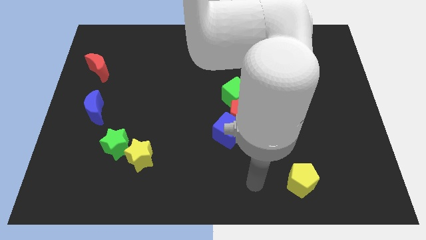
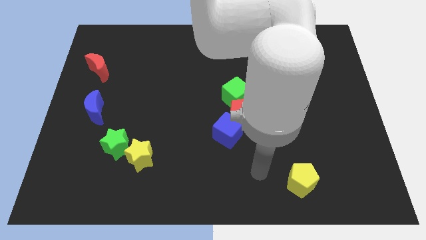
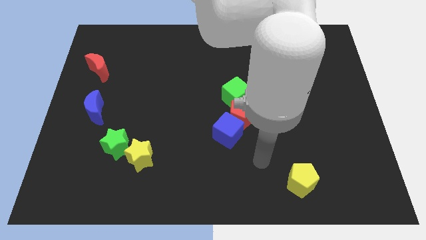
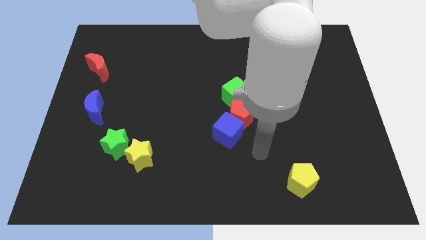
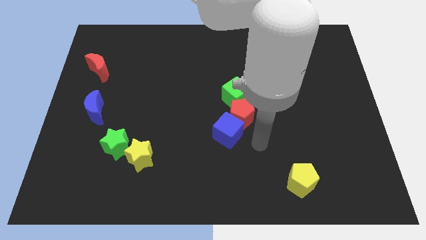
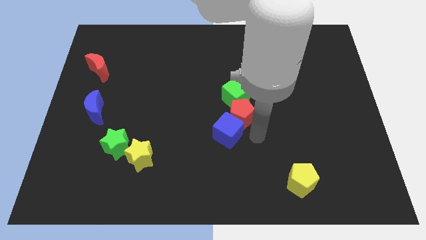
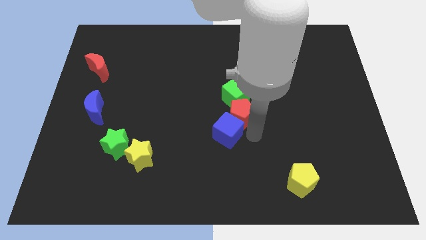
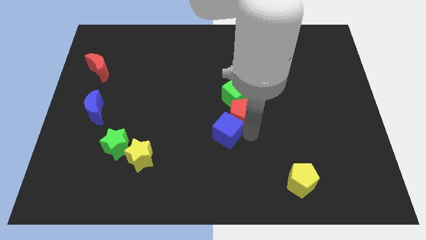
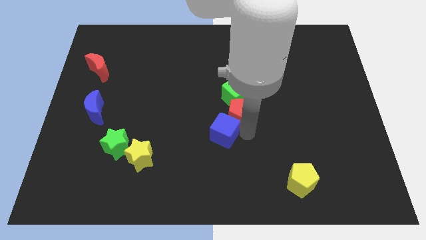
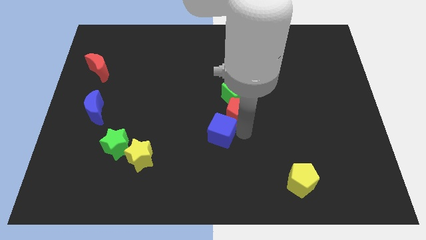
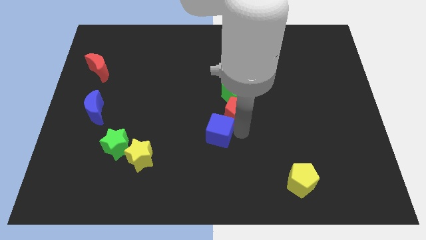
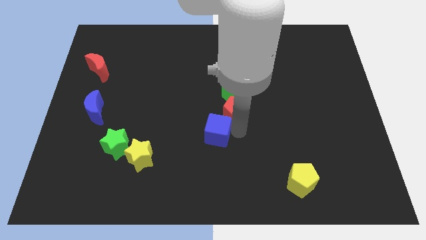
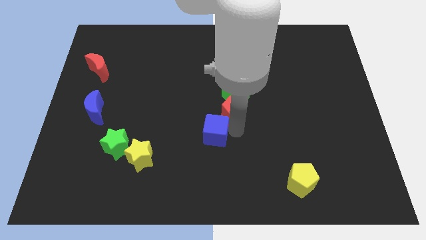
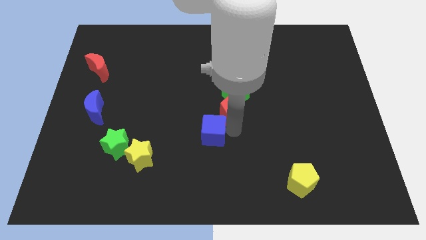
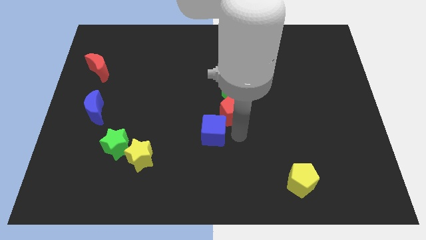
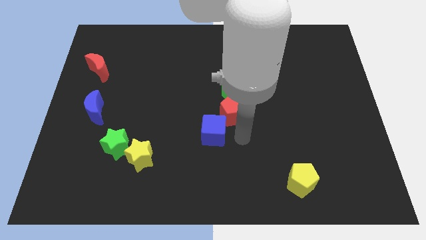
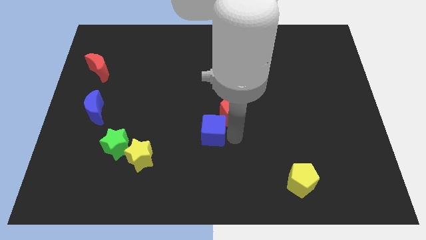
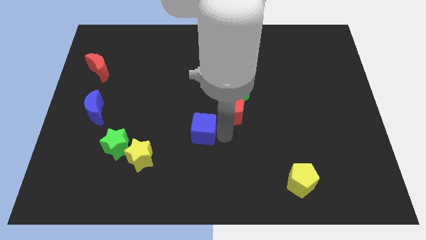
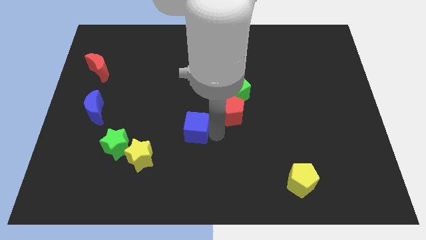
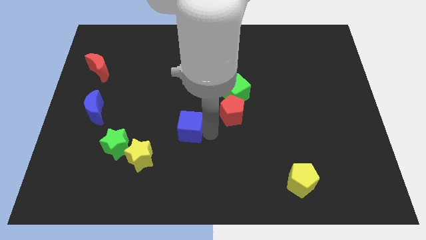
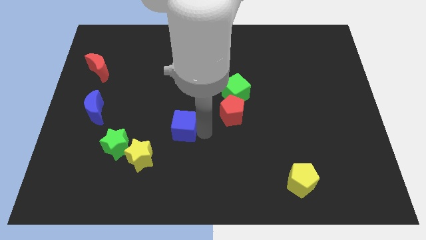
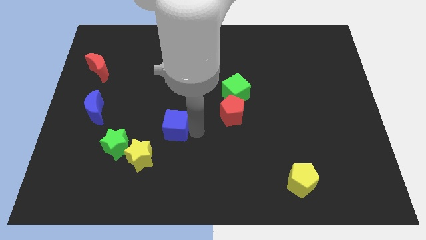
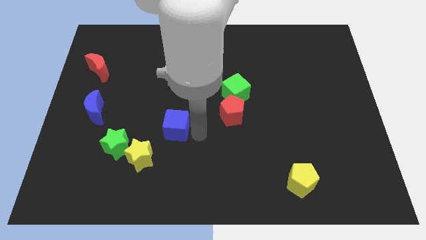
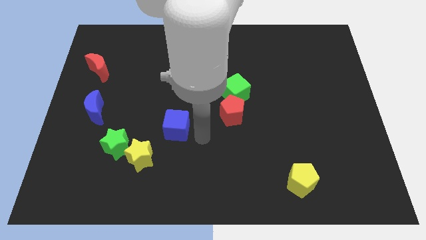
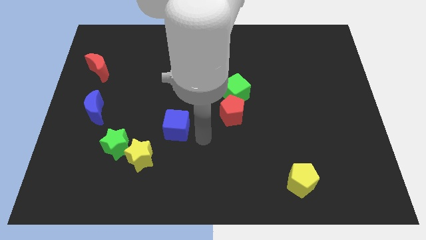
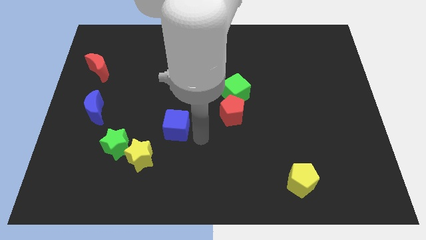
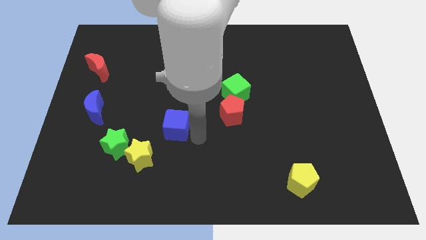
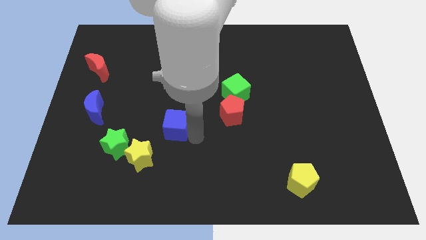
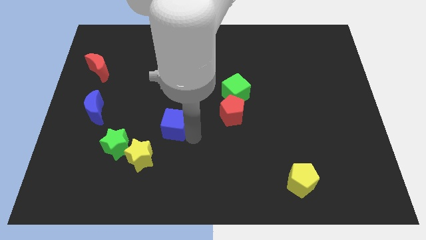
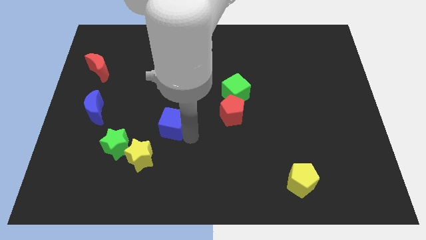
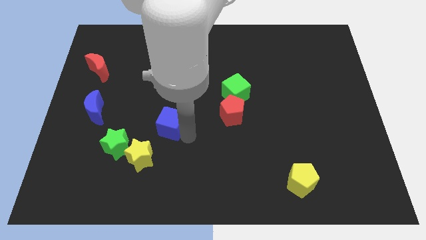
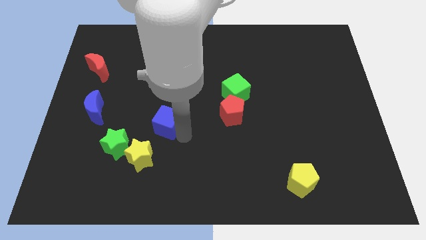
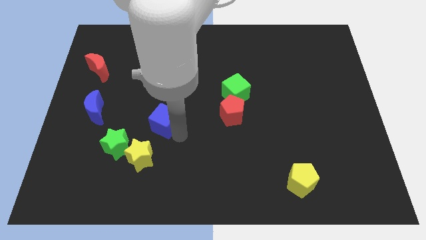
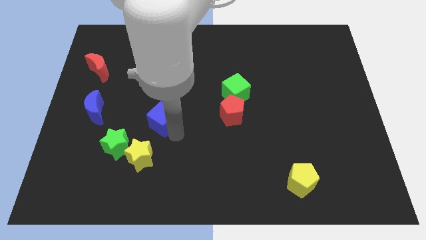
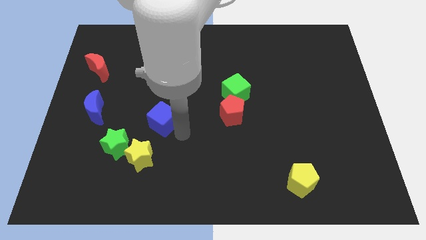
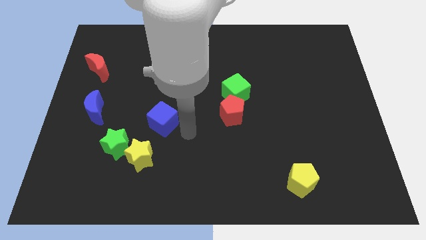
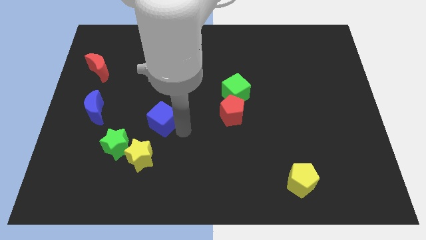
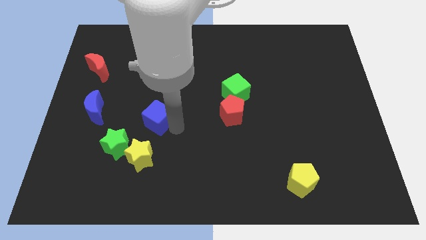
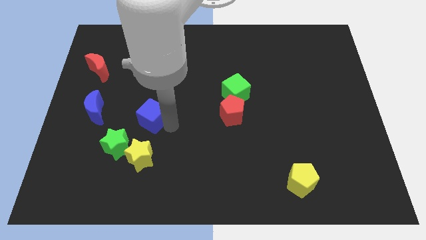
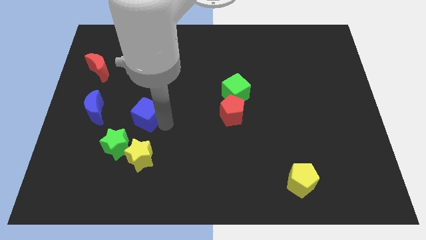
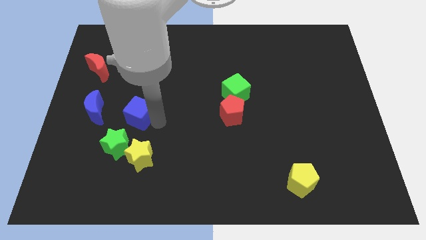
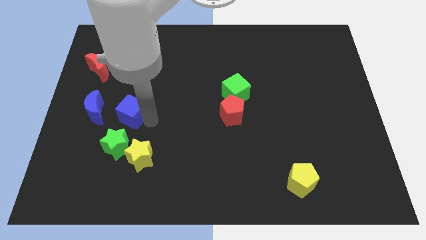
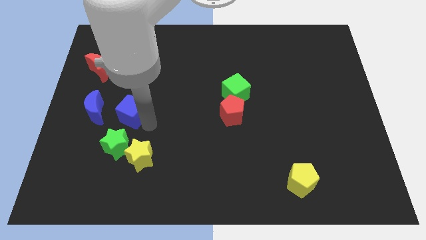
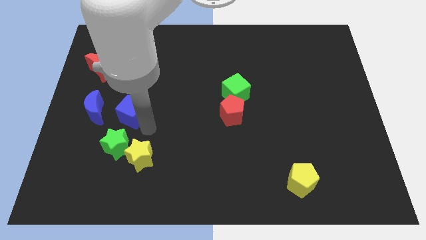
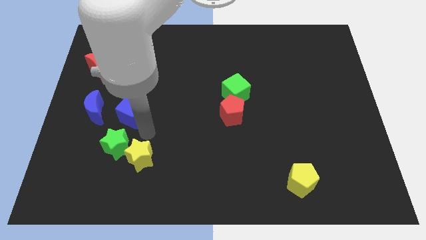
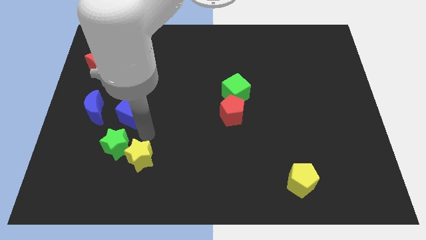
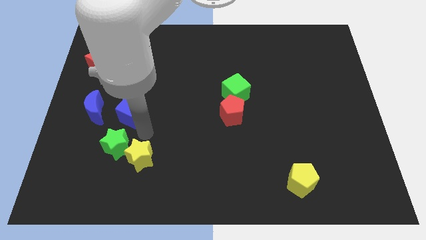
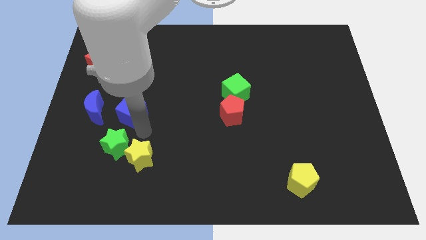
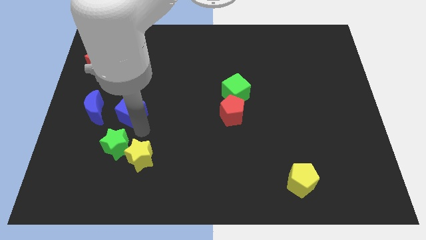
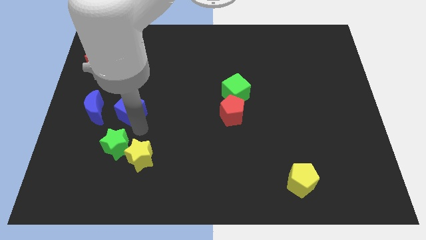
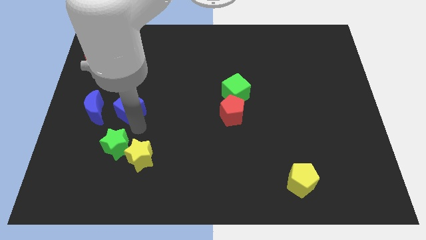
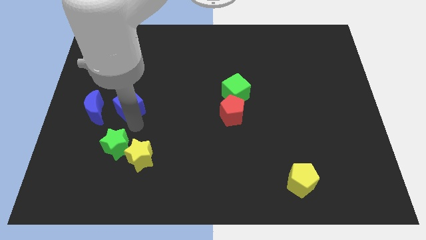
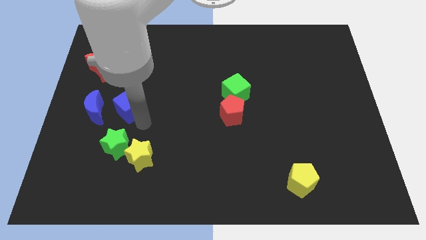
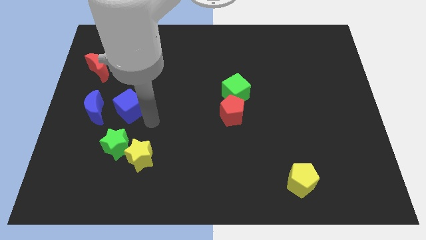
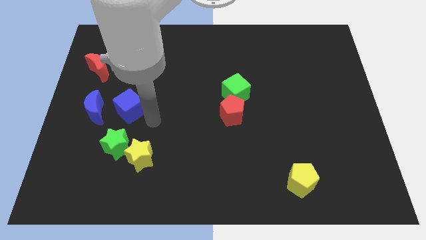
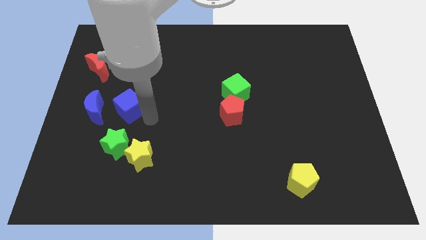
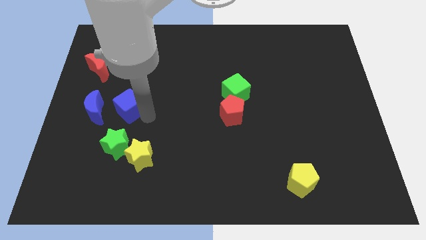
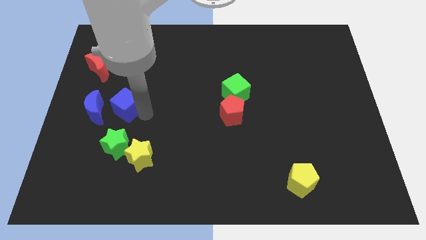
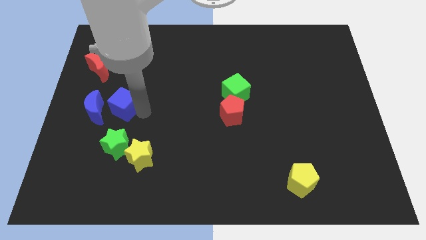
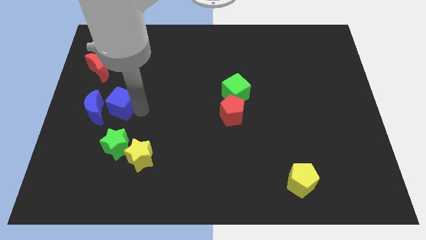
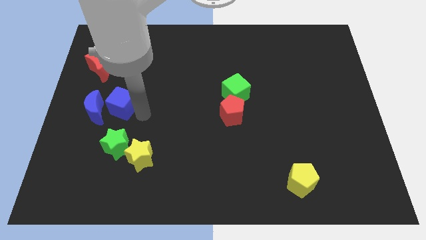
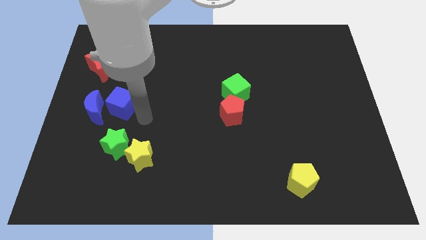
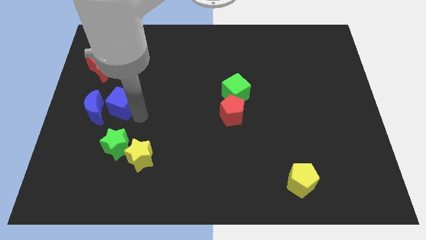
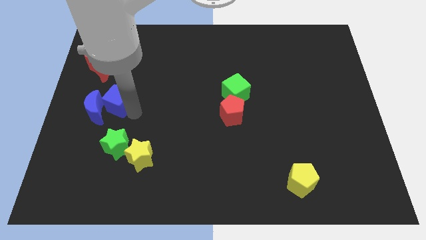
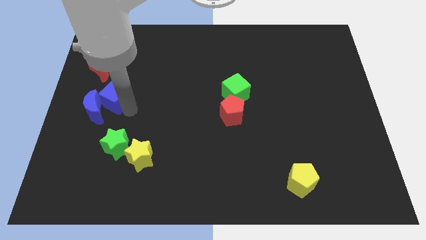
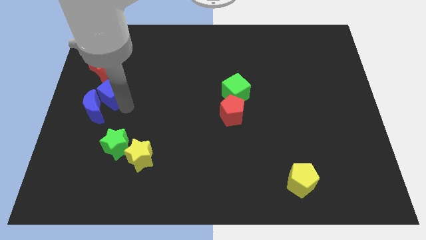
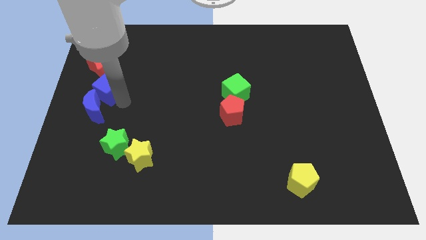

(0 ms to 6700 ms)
slide the blue cube to the left side of the board
